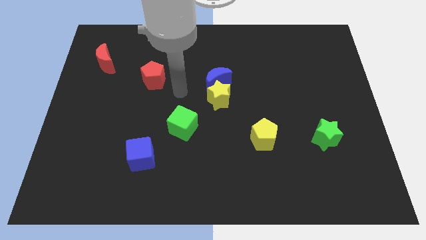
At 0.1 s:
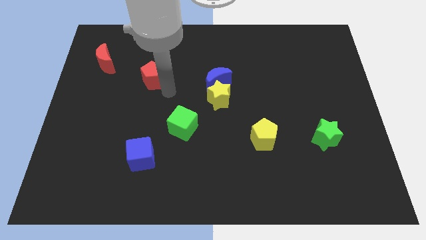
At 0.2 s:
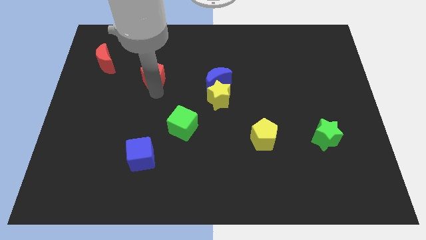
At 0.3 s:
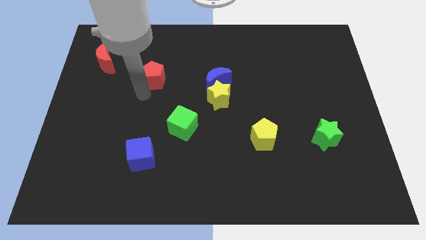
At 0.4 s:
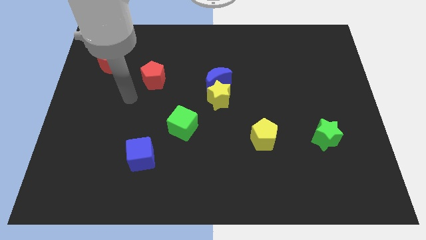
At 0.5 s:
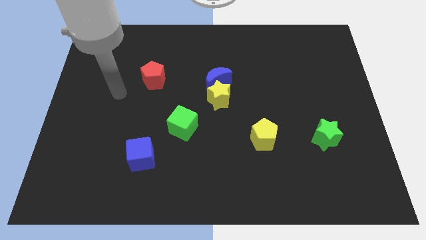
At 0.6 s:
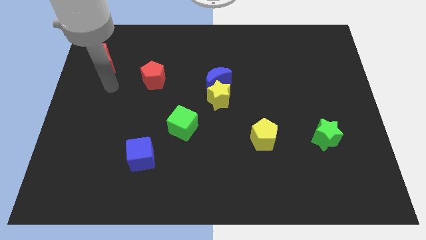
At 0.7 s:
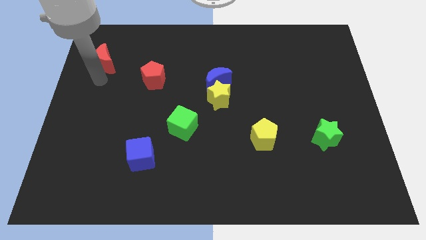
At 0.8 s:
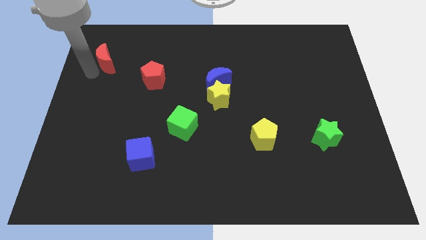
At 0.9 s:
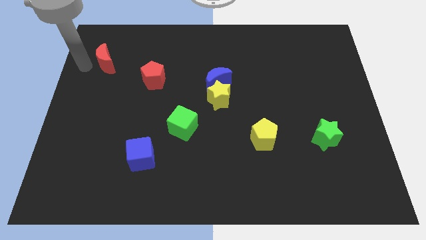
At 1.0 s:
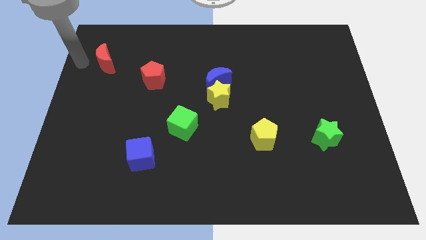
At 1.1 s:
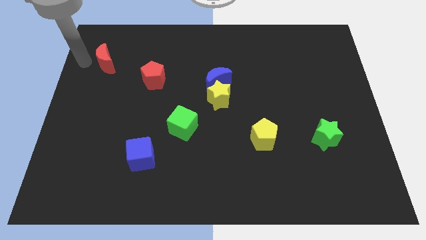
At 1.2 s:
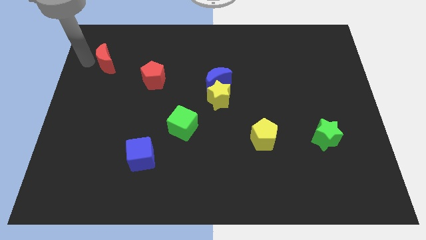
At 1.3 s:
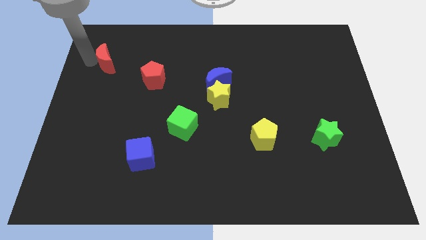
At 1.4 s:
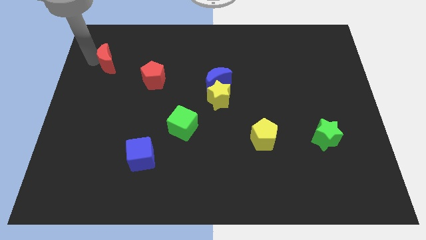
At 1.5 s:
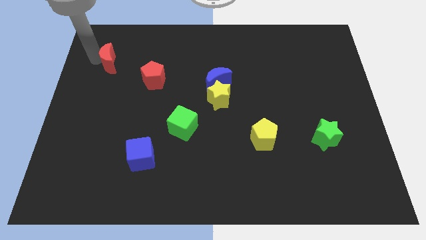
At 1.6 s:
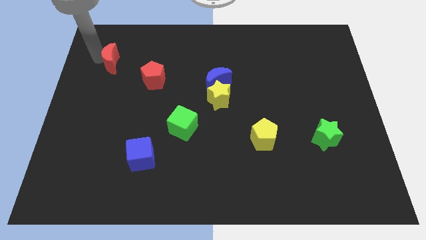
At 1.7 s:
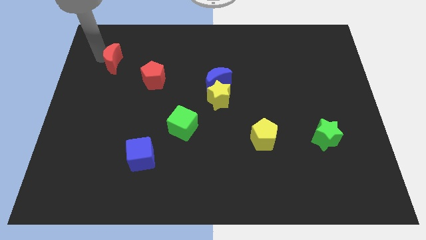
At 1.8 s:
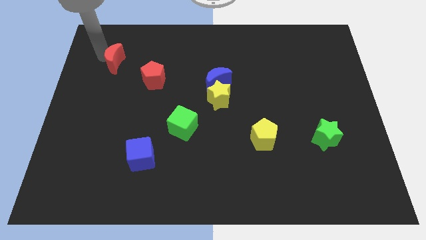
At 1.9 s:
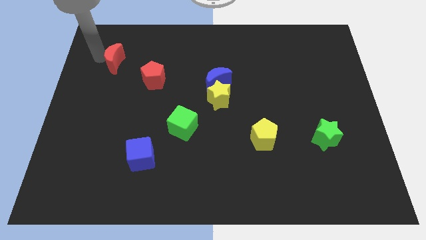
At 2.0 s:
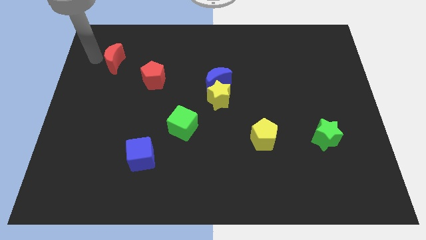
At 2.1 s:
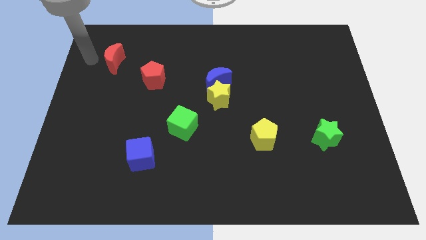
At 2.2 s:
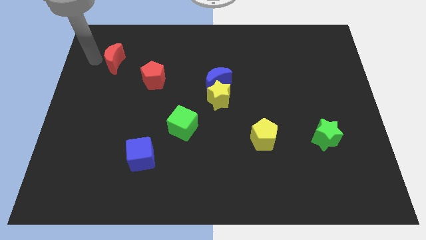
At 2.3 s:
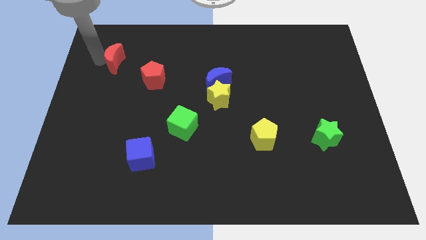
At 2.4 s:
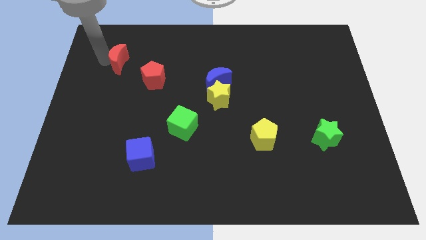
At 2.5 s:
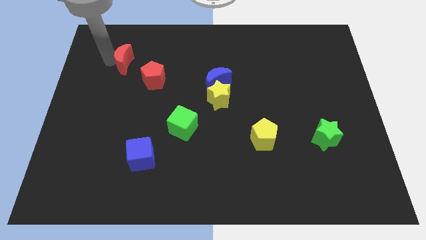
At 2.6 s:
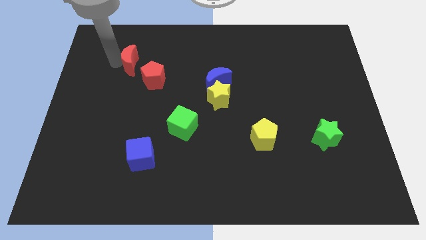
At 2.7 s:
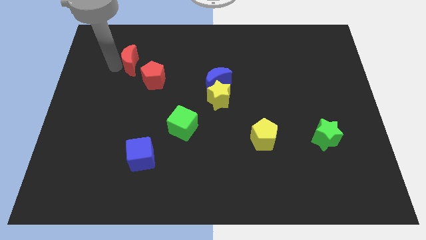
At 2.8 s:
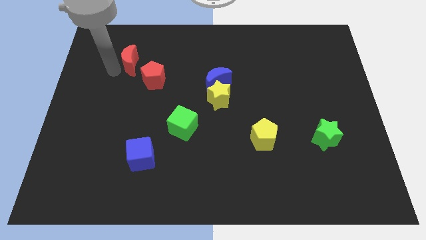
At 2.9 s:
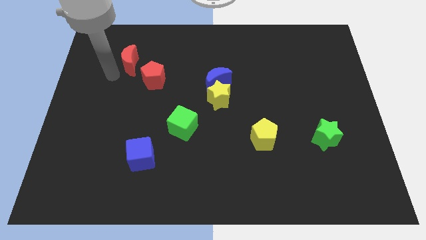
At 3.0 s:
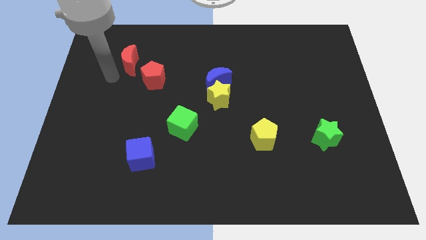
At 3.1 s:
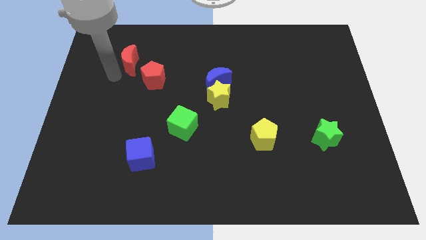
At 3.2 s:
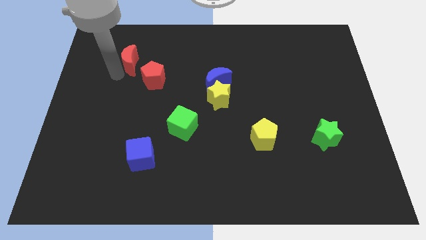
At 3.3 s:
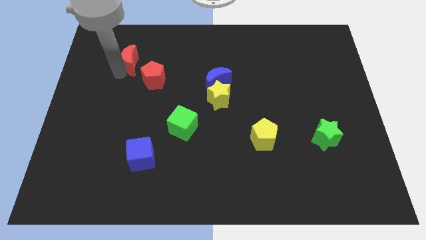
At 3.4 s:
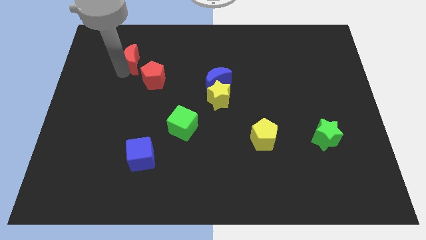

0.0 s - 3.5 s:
move the red moon a bit right

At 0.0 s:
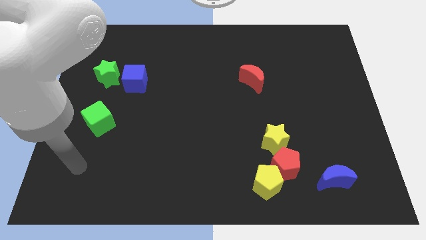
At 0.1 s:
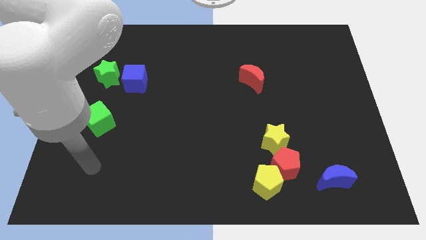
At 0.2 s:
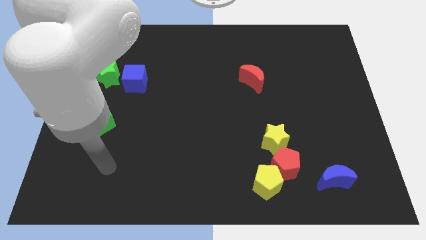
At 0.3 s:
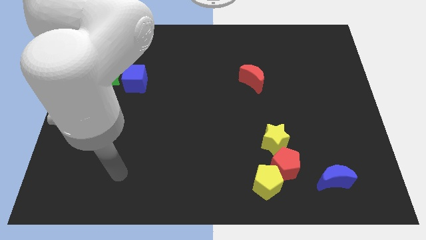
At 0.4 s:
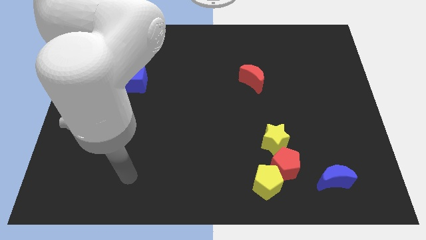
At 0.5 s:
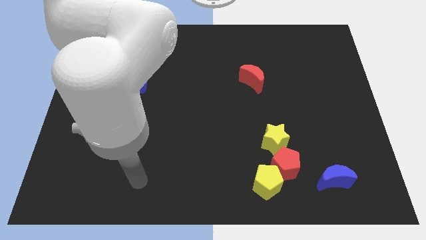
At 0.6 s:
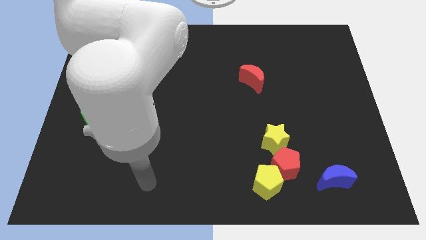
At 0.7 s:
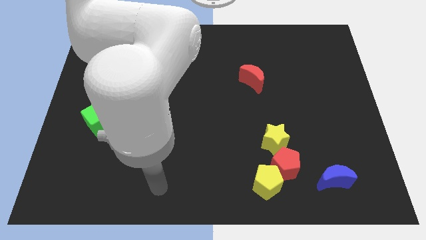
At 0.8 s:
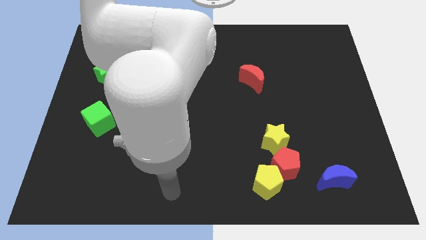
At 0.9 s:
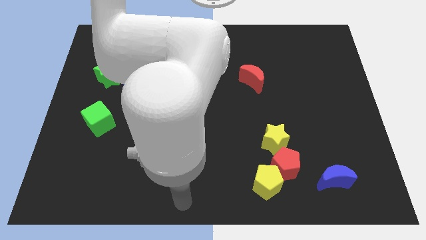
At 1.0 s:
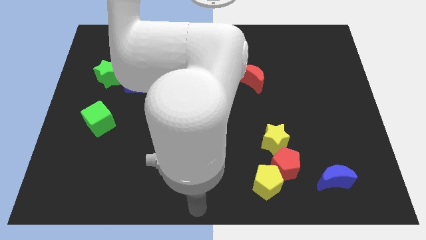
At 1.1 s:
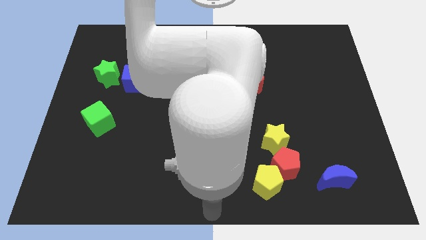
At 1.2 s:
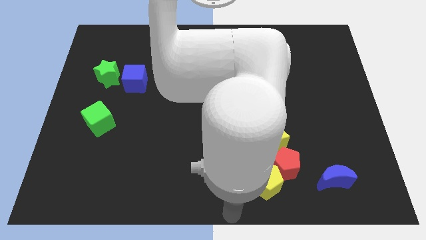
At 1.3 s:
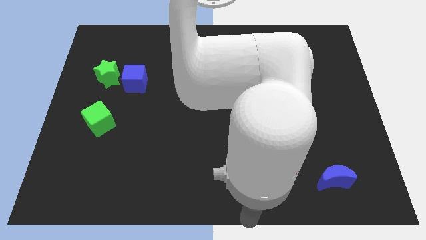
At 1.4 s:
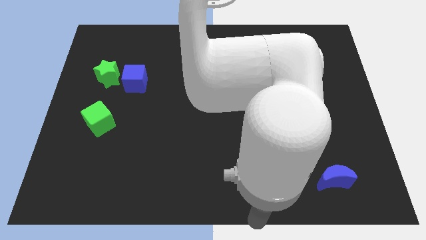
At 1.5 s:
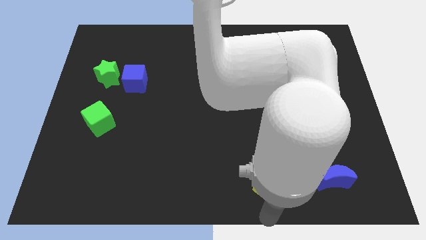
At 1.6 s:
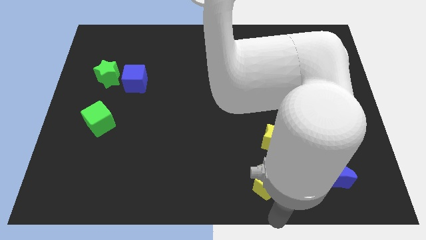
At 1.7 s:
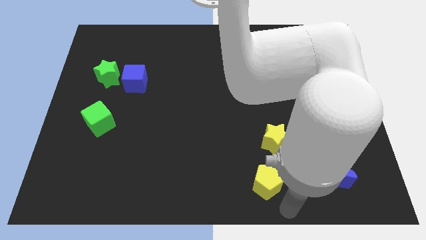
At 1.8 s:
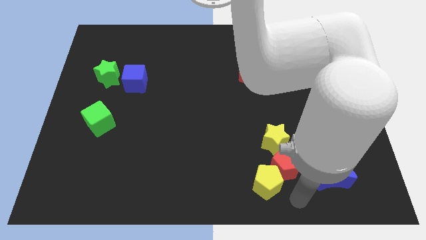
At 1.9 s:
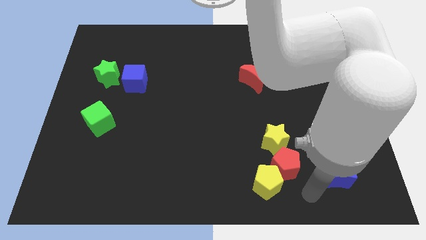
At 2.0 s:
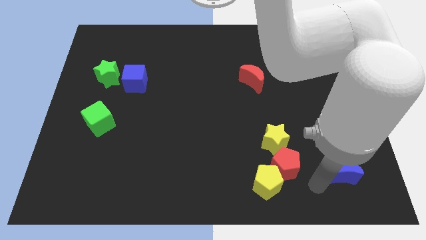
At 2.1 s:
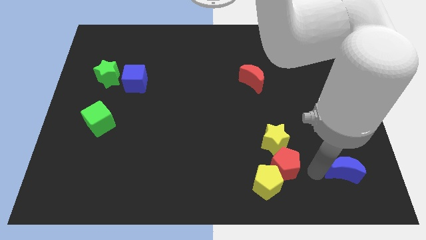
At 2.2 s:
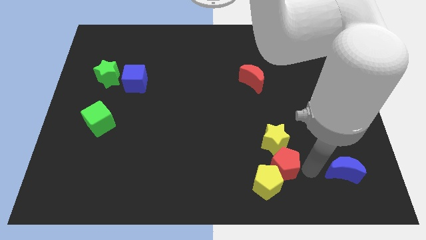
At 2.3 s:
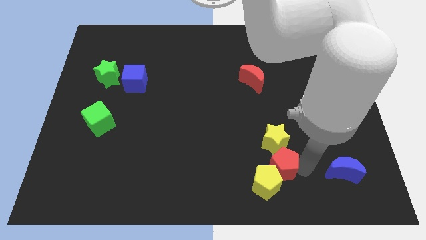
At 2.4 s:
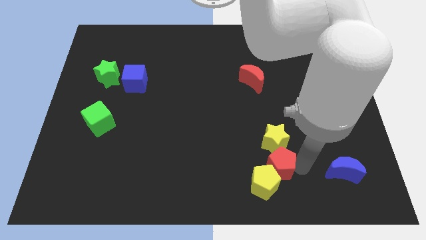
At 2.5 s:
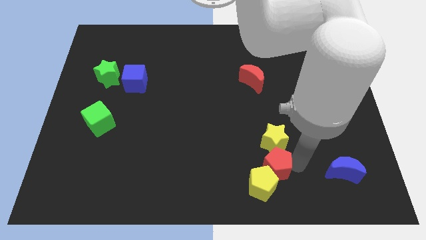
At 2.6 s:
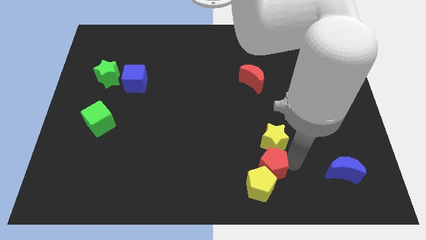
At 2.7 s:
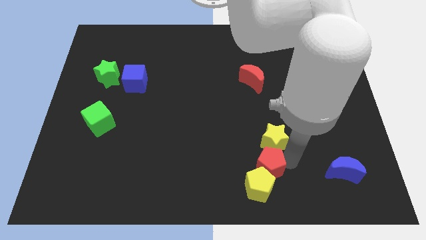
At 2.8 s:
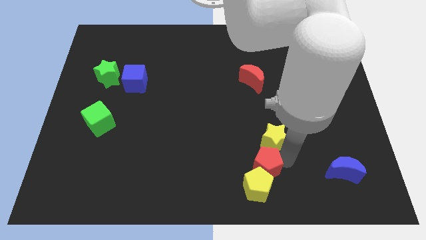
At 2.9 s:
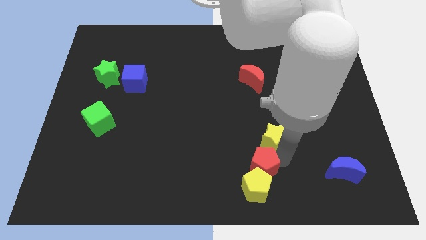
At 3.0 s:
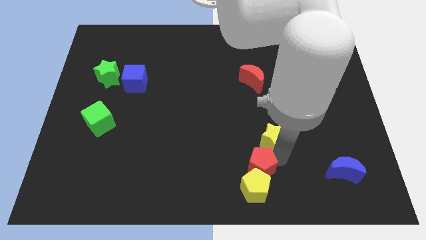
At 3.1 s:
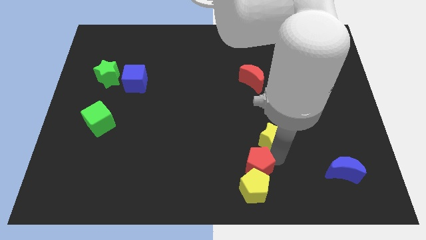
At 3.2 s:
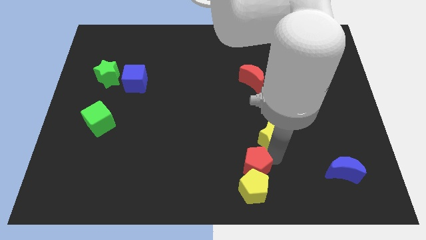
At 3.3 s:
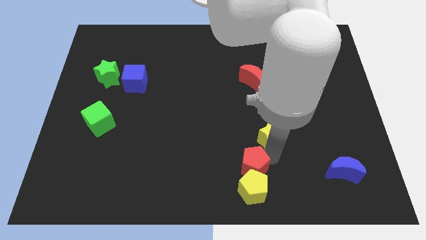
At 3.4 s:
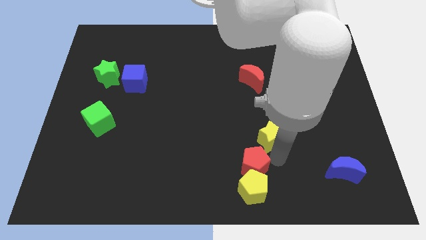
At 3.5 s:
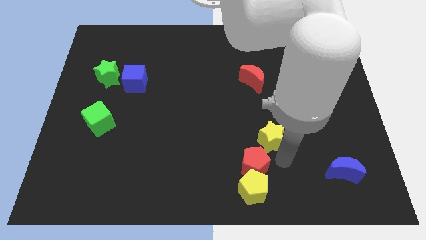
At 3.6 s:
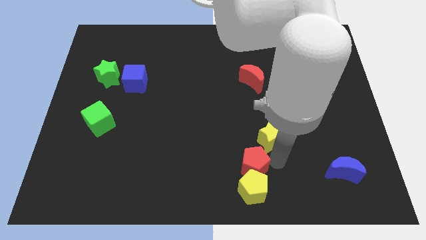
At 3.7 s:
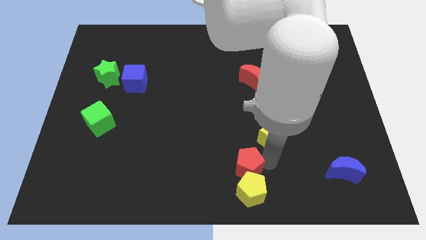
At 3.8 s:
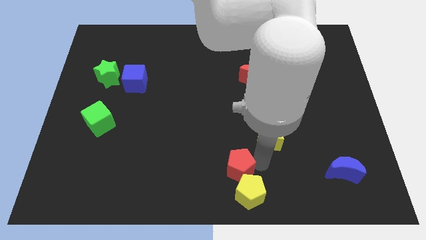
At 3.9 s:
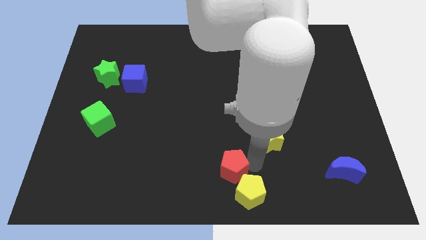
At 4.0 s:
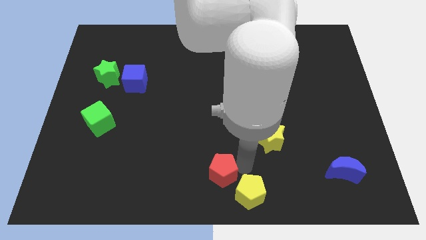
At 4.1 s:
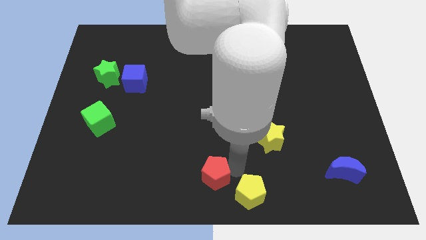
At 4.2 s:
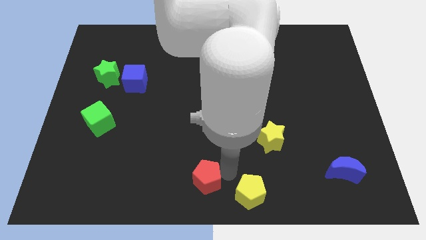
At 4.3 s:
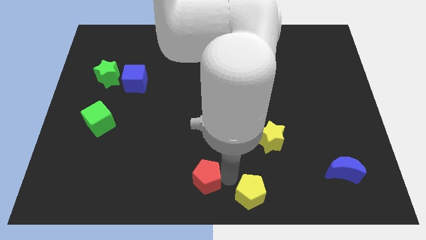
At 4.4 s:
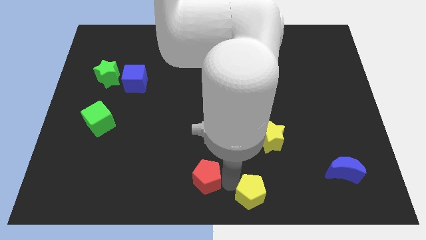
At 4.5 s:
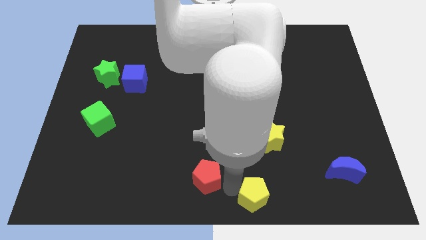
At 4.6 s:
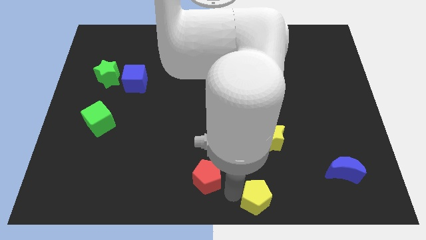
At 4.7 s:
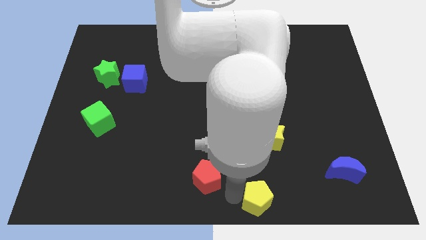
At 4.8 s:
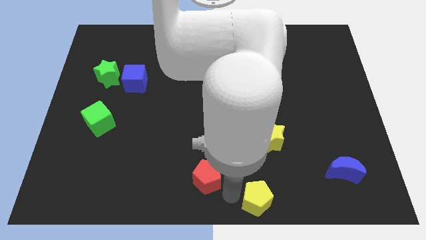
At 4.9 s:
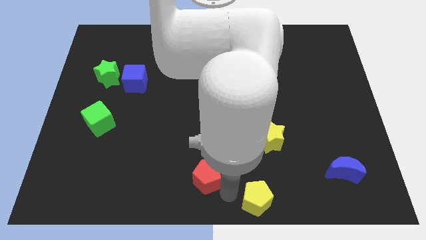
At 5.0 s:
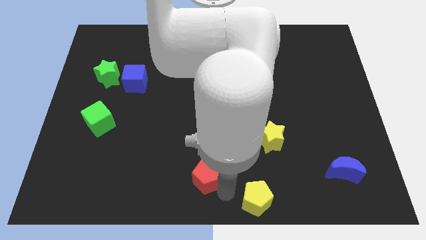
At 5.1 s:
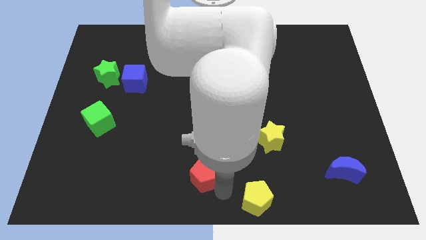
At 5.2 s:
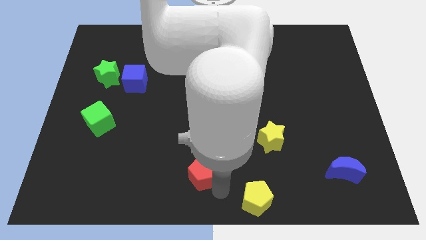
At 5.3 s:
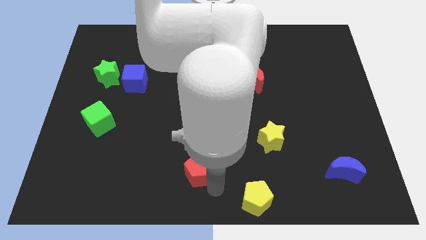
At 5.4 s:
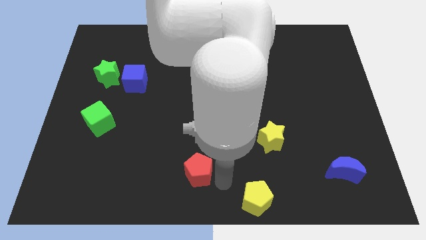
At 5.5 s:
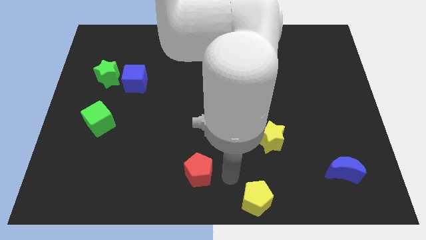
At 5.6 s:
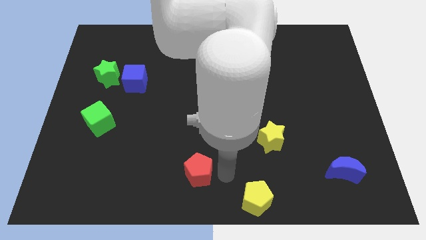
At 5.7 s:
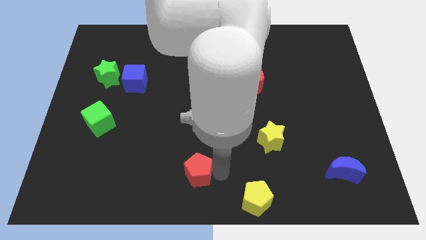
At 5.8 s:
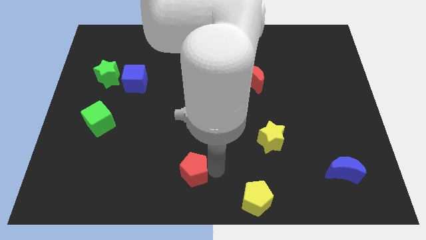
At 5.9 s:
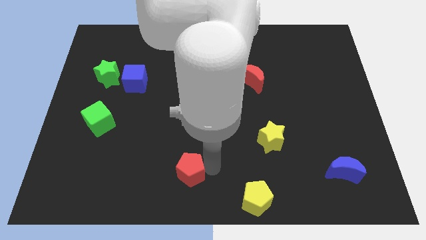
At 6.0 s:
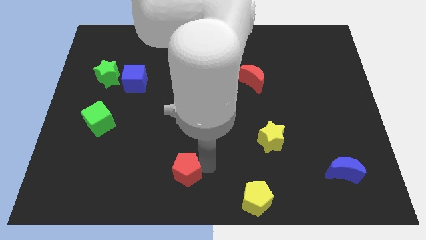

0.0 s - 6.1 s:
push the red pentagon to the left
